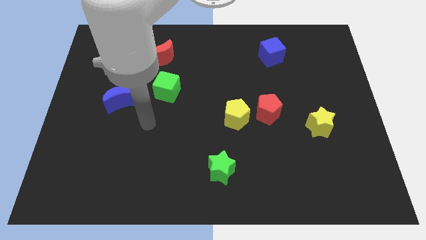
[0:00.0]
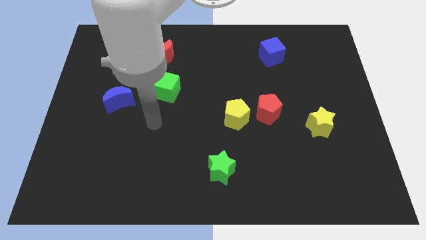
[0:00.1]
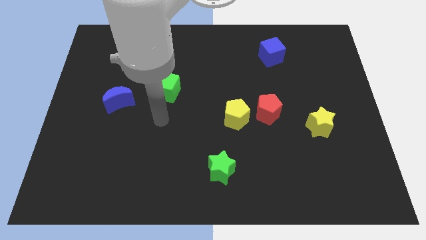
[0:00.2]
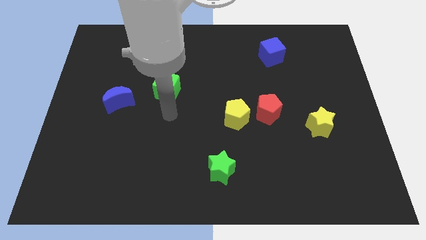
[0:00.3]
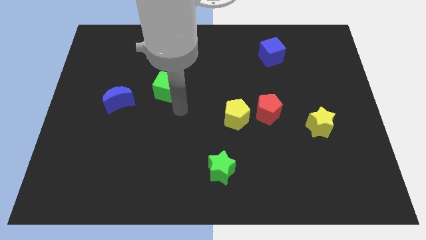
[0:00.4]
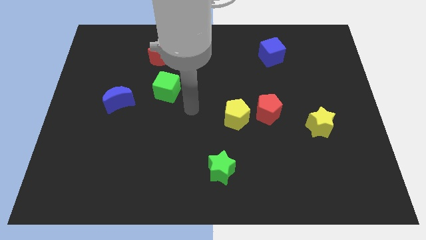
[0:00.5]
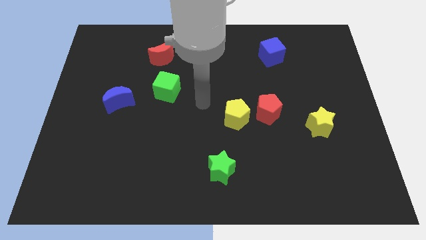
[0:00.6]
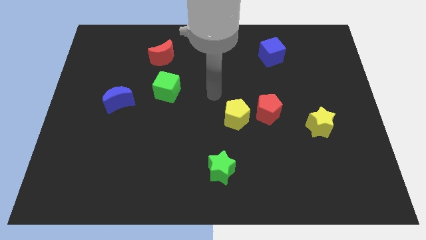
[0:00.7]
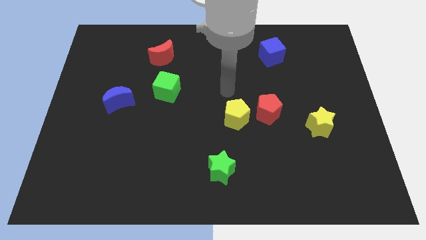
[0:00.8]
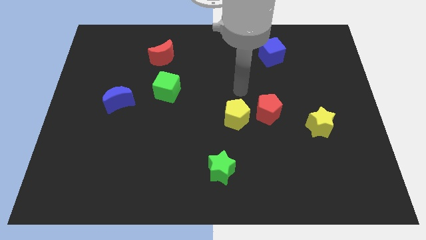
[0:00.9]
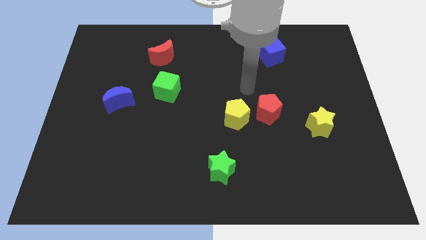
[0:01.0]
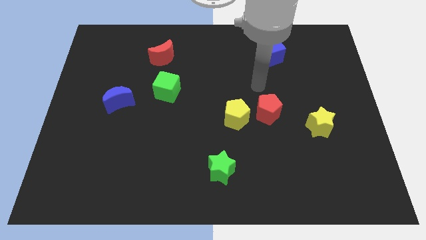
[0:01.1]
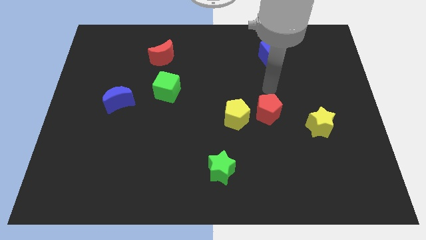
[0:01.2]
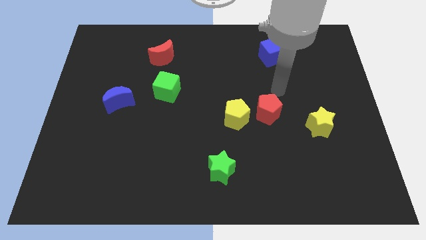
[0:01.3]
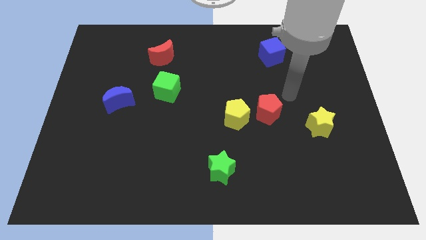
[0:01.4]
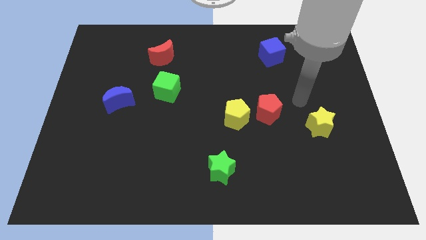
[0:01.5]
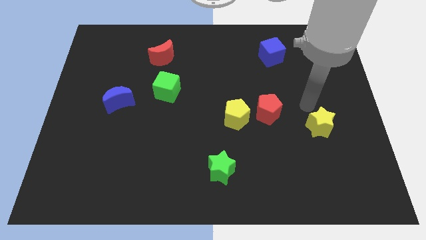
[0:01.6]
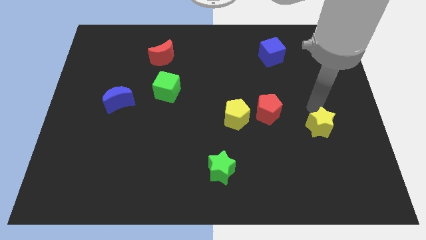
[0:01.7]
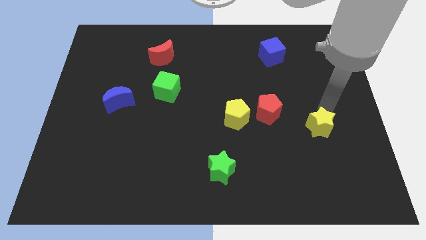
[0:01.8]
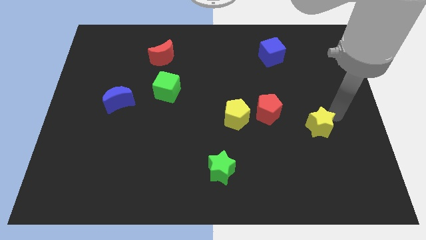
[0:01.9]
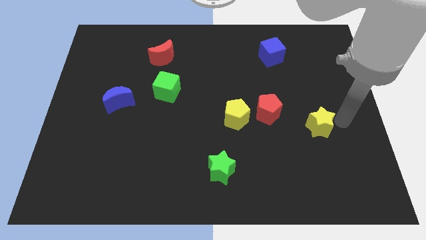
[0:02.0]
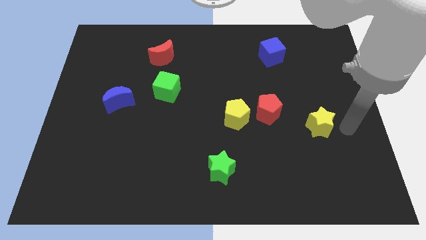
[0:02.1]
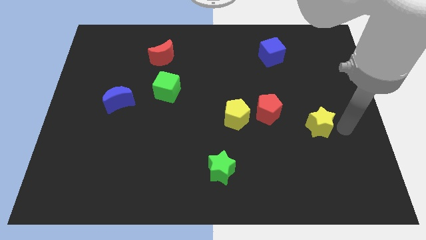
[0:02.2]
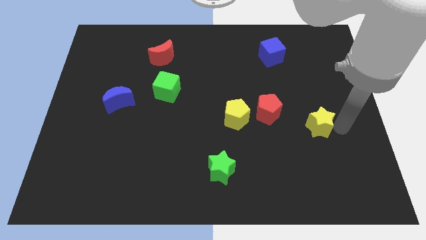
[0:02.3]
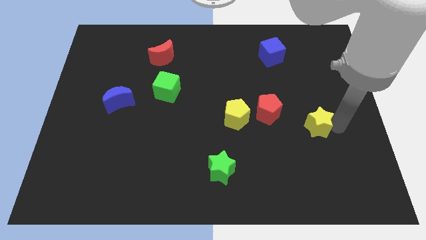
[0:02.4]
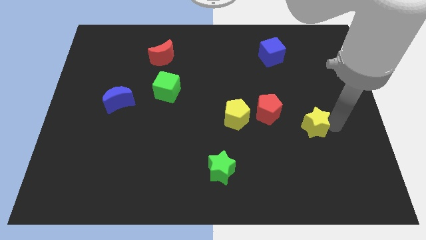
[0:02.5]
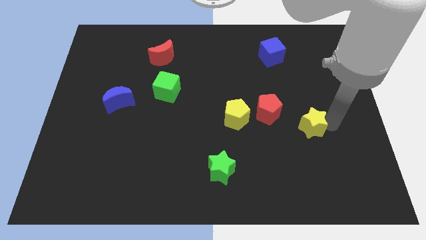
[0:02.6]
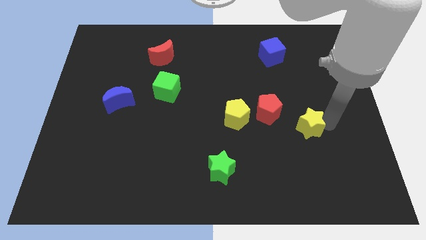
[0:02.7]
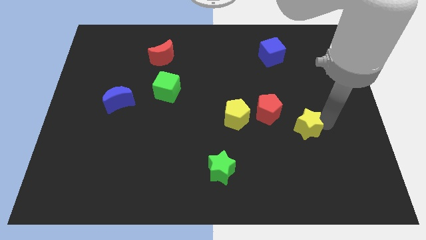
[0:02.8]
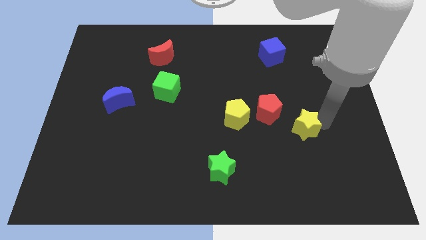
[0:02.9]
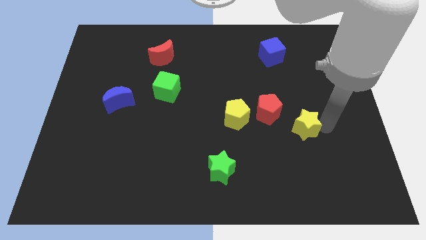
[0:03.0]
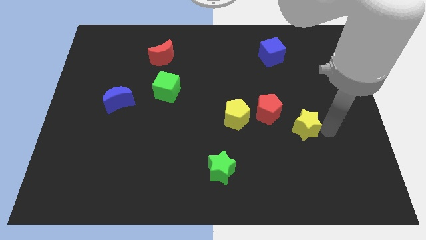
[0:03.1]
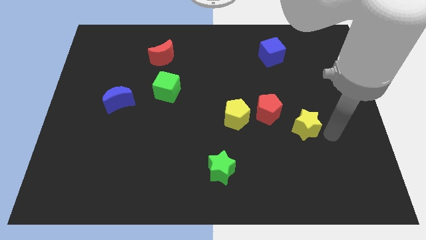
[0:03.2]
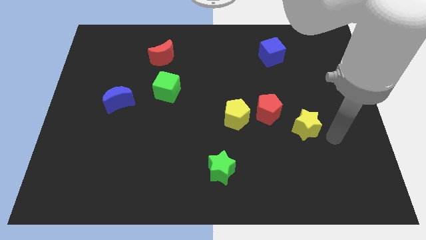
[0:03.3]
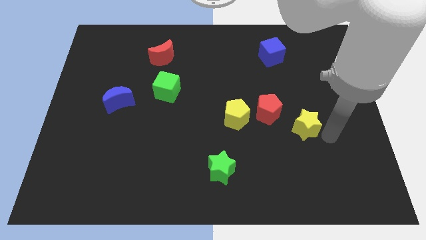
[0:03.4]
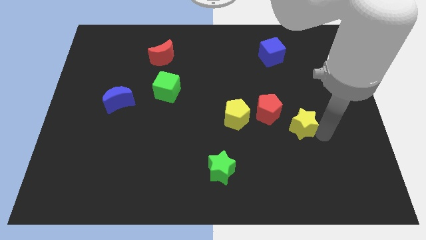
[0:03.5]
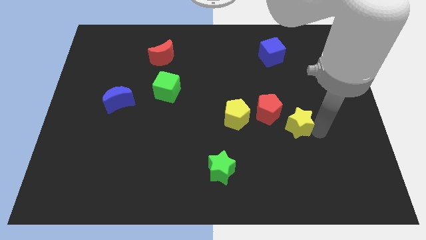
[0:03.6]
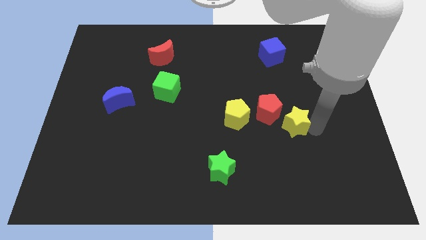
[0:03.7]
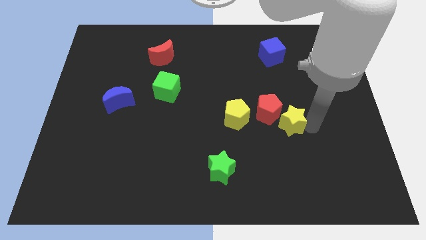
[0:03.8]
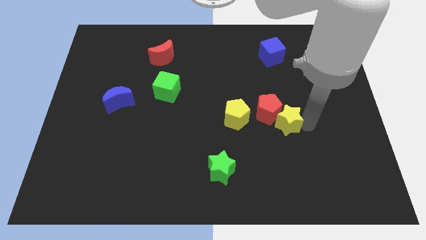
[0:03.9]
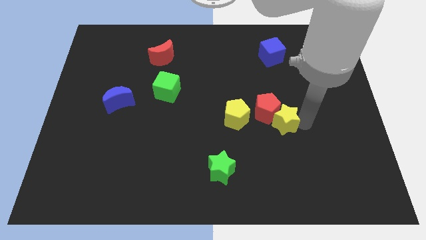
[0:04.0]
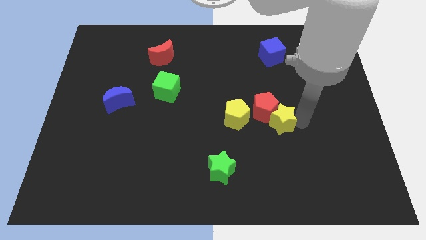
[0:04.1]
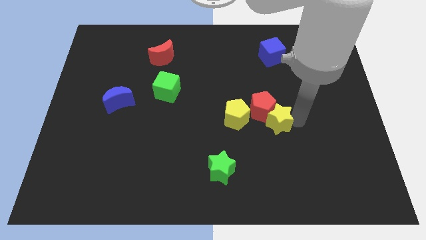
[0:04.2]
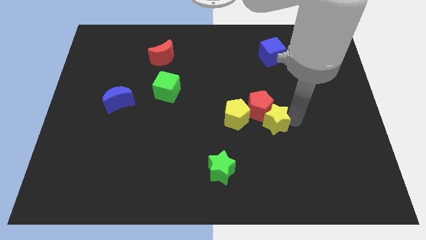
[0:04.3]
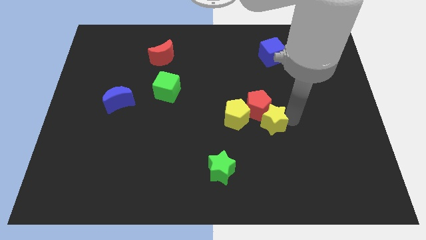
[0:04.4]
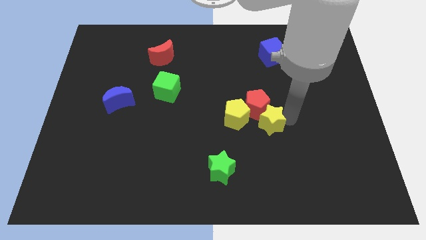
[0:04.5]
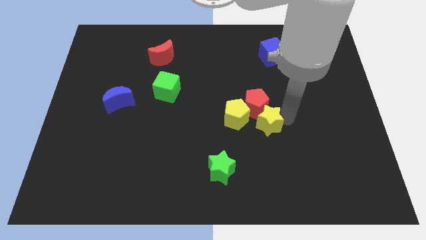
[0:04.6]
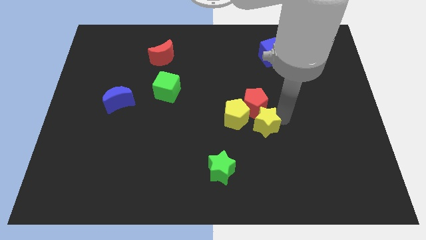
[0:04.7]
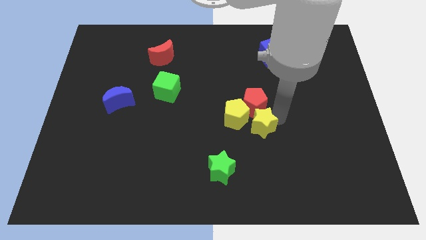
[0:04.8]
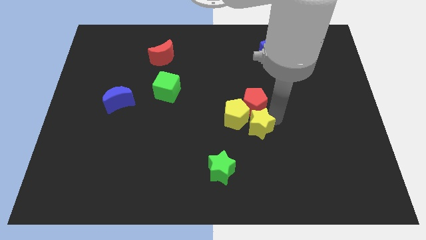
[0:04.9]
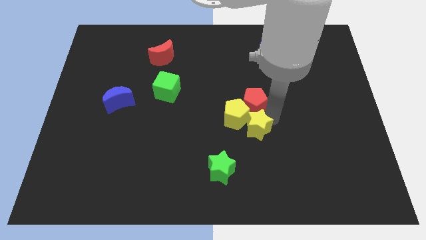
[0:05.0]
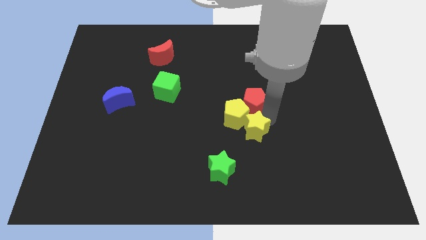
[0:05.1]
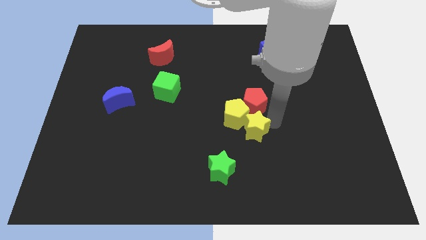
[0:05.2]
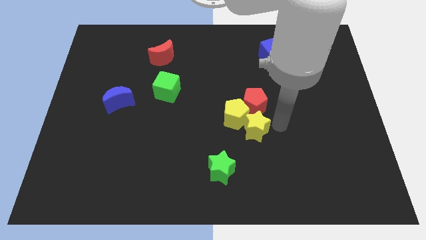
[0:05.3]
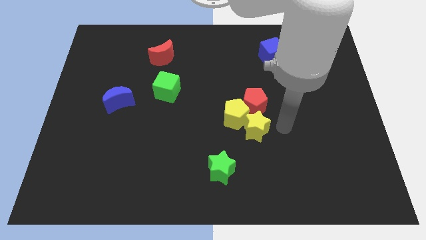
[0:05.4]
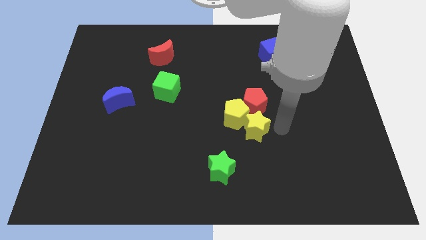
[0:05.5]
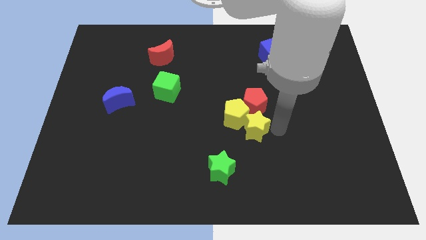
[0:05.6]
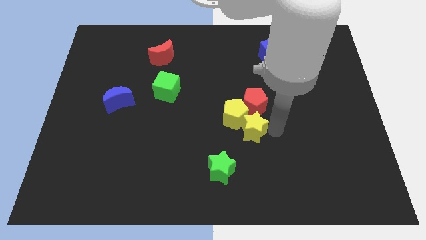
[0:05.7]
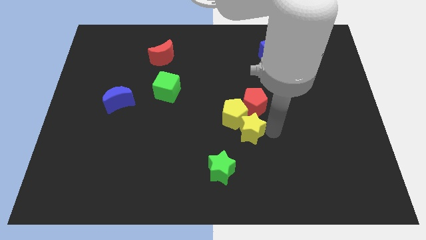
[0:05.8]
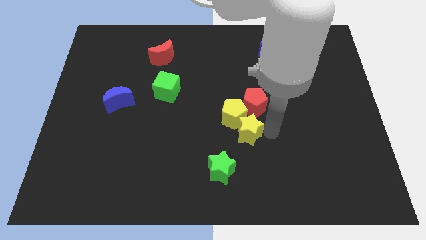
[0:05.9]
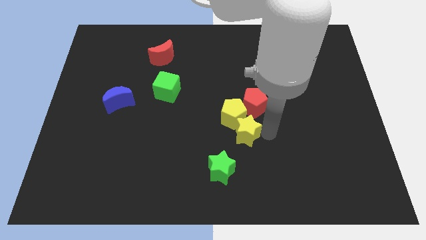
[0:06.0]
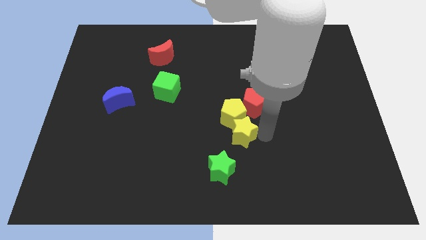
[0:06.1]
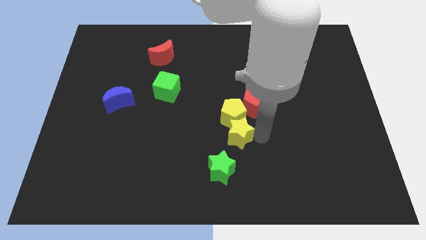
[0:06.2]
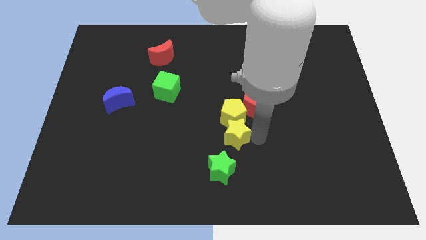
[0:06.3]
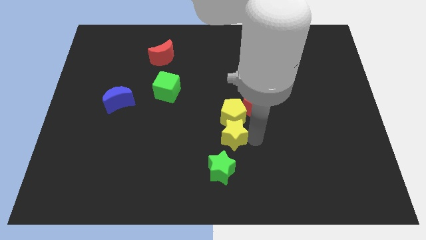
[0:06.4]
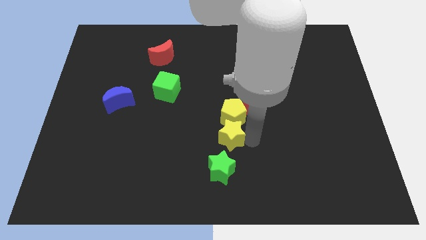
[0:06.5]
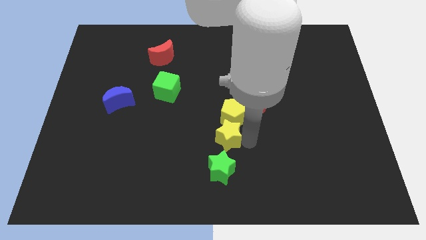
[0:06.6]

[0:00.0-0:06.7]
slide the yellow star left

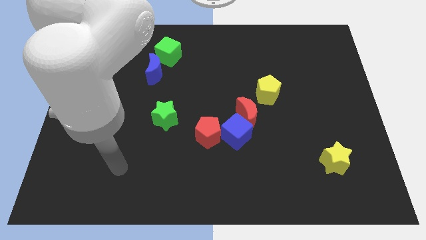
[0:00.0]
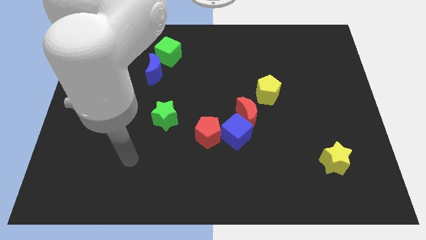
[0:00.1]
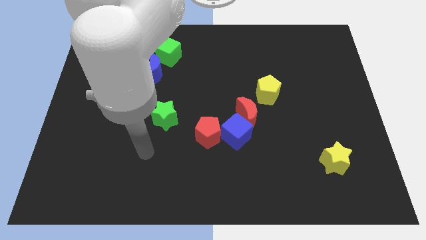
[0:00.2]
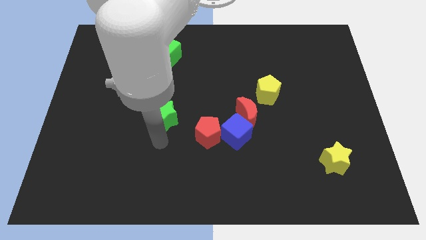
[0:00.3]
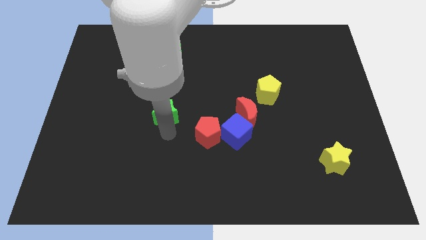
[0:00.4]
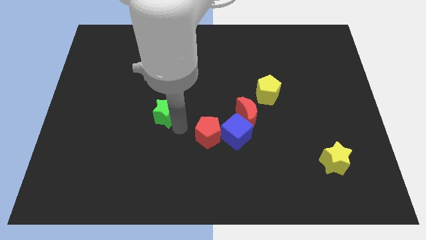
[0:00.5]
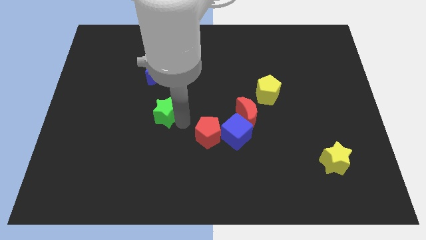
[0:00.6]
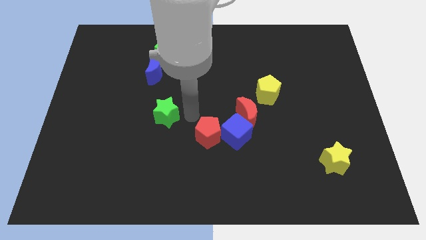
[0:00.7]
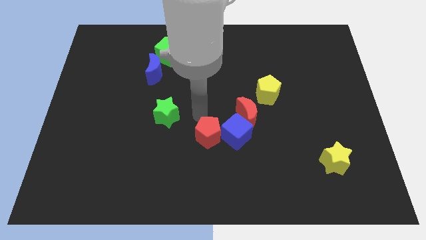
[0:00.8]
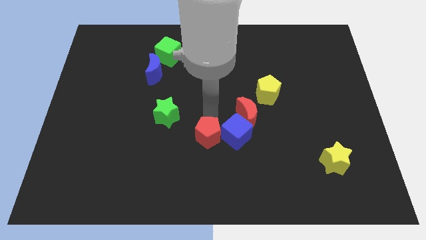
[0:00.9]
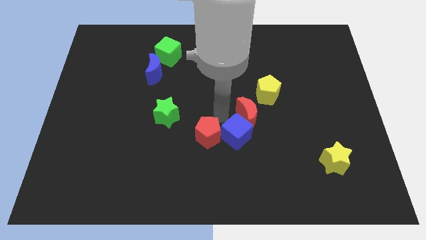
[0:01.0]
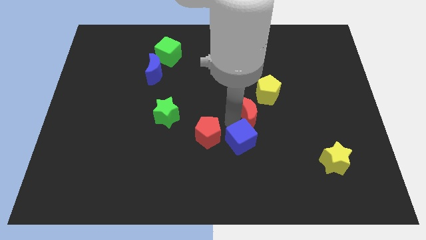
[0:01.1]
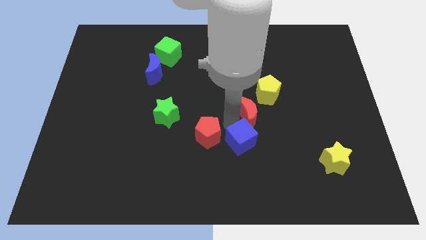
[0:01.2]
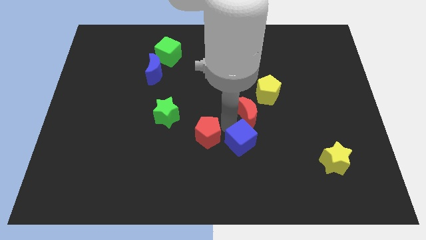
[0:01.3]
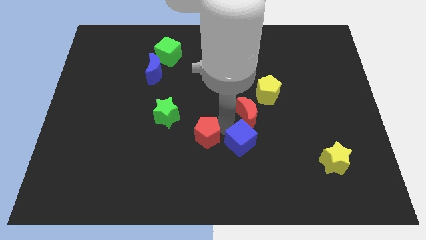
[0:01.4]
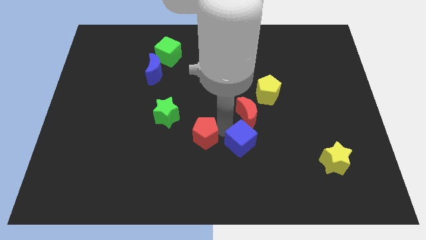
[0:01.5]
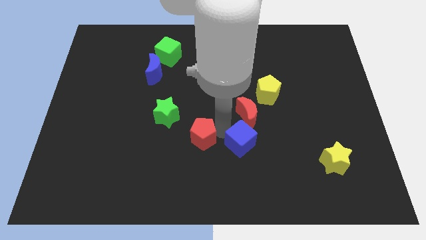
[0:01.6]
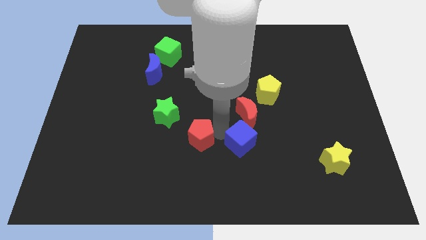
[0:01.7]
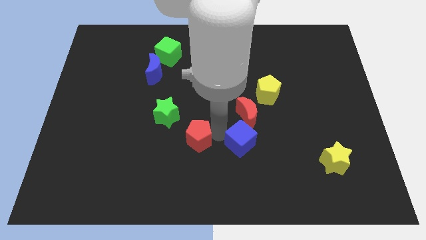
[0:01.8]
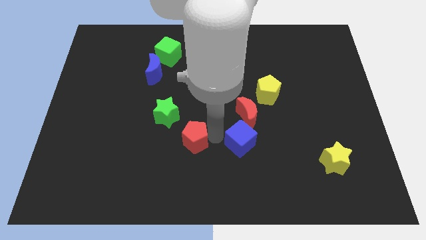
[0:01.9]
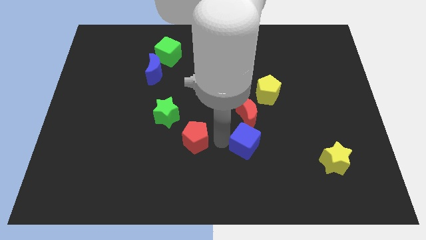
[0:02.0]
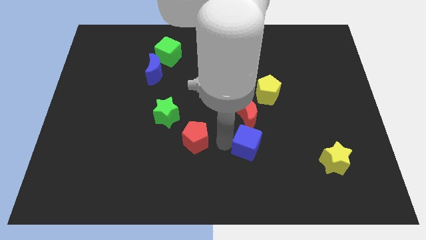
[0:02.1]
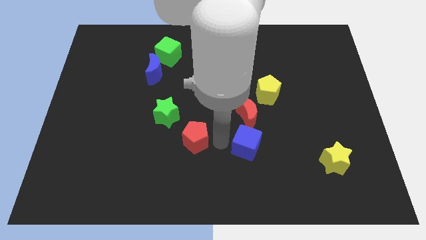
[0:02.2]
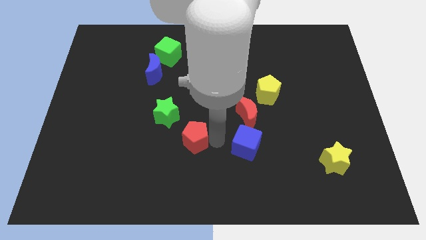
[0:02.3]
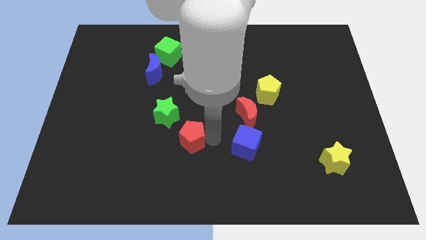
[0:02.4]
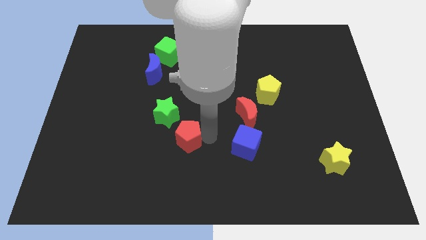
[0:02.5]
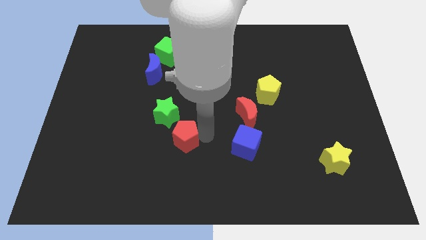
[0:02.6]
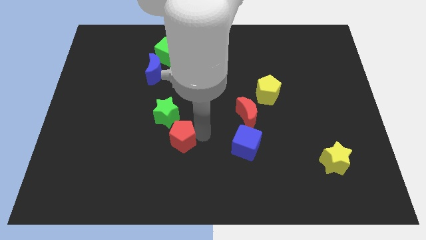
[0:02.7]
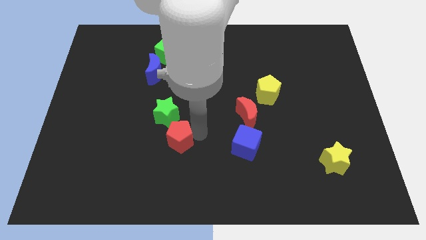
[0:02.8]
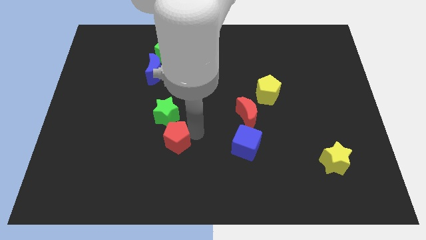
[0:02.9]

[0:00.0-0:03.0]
move the red pentagon slightly to the left
